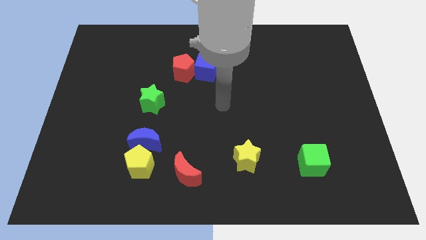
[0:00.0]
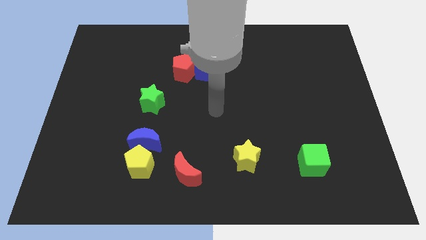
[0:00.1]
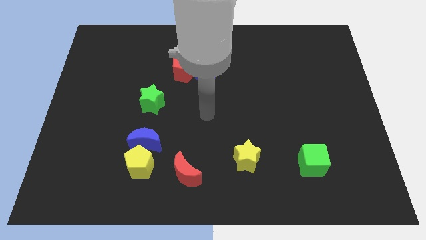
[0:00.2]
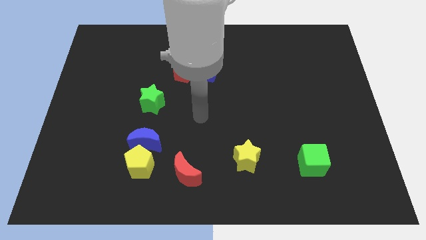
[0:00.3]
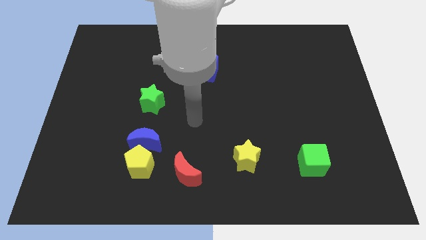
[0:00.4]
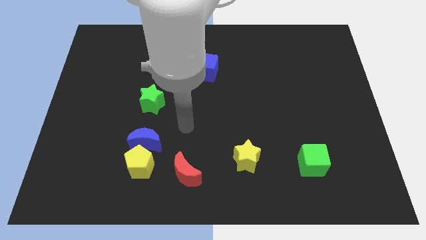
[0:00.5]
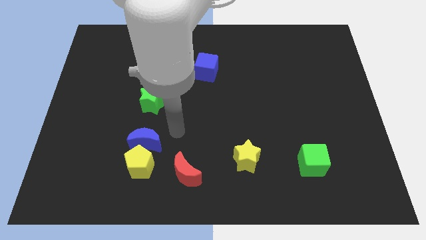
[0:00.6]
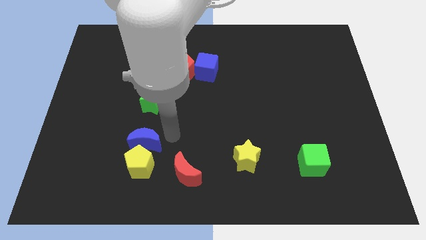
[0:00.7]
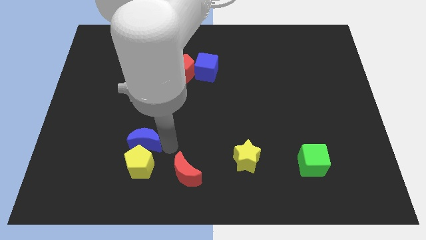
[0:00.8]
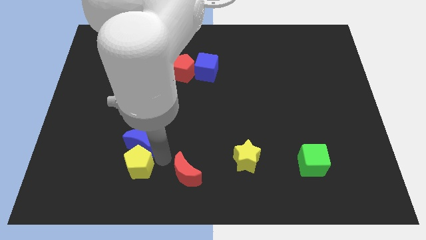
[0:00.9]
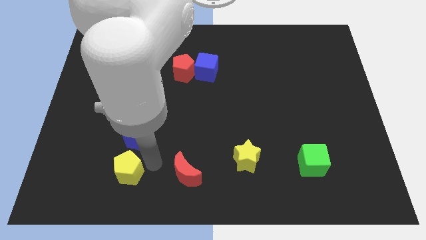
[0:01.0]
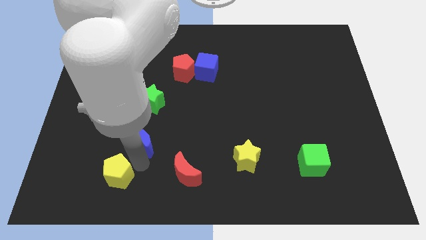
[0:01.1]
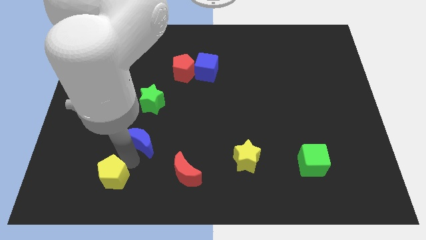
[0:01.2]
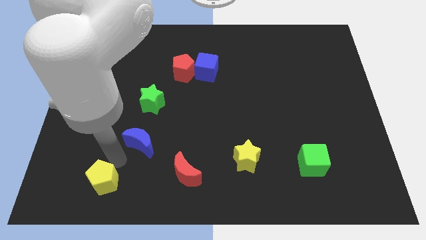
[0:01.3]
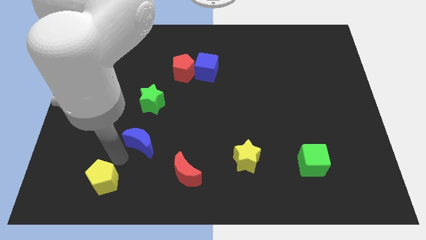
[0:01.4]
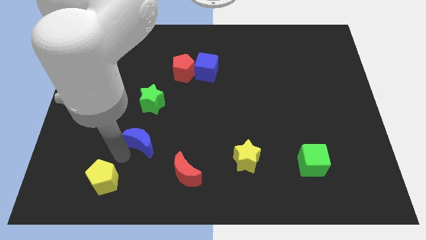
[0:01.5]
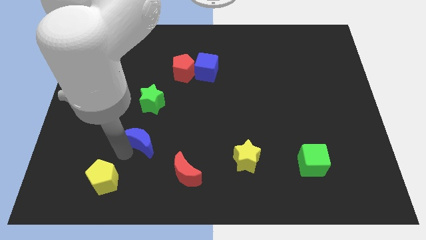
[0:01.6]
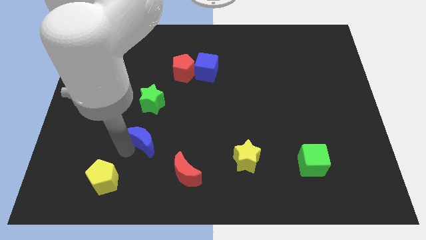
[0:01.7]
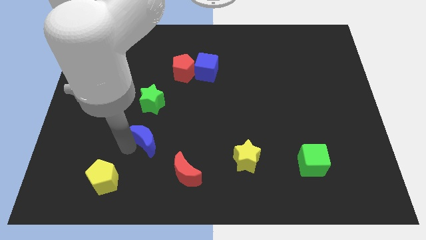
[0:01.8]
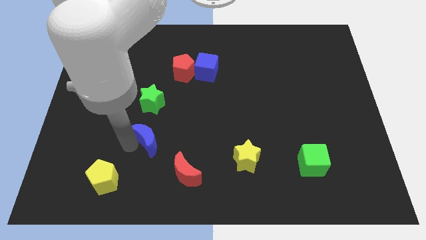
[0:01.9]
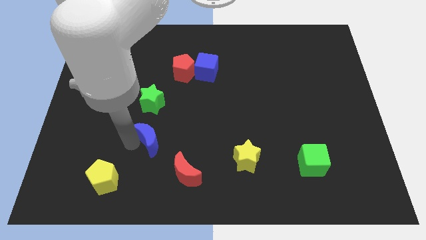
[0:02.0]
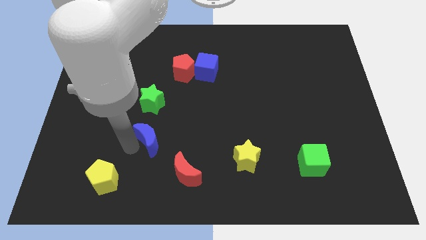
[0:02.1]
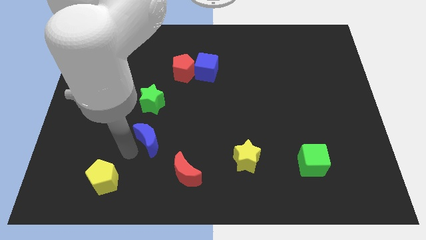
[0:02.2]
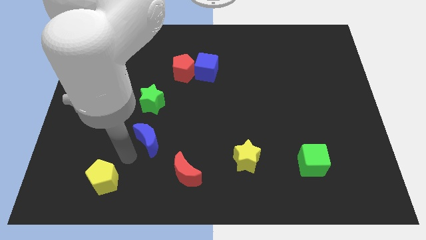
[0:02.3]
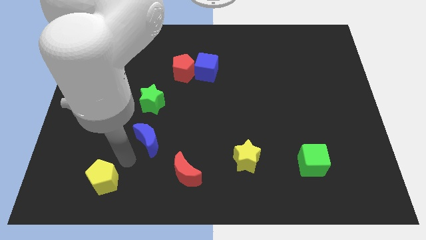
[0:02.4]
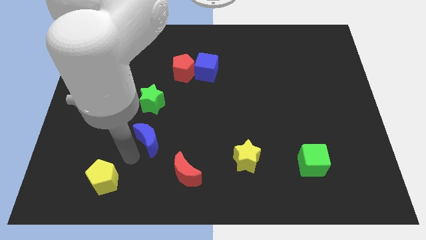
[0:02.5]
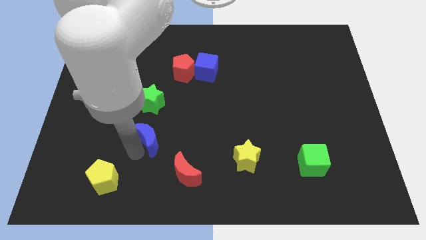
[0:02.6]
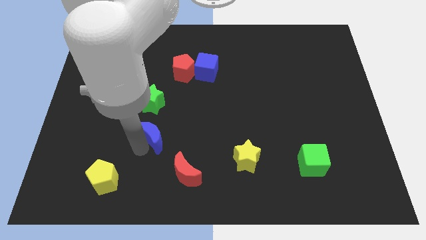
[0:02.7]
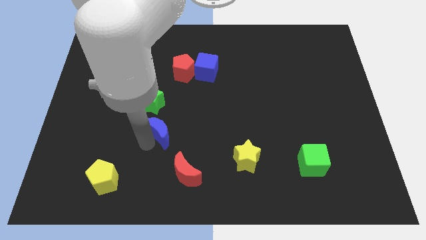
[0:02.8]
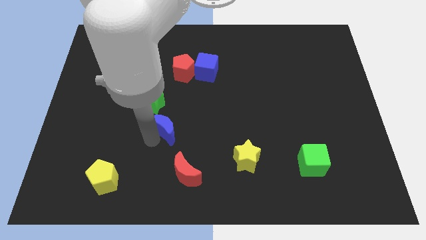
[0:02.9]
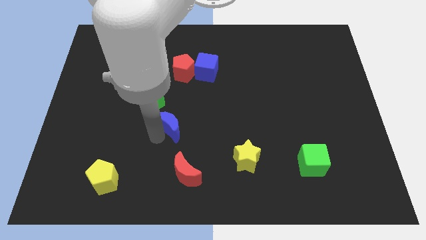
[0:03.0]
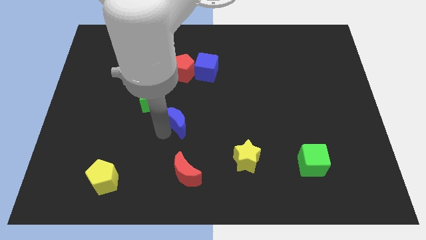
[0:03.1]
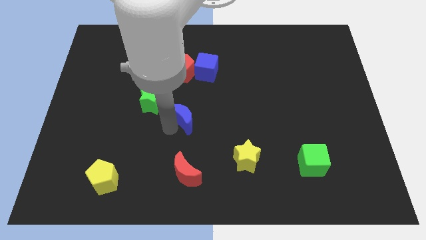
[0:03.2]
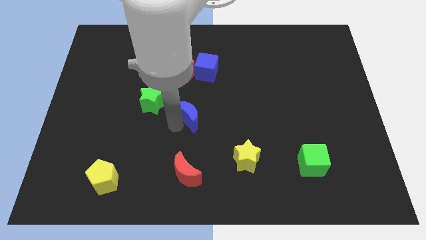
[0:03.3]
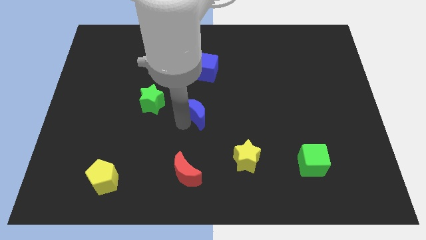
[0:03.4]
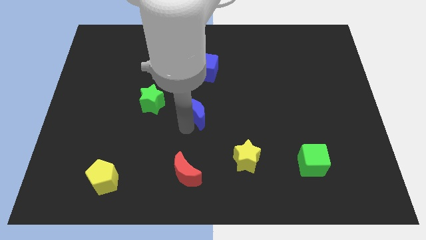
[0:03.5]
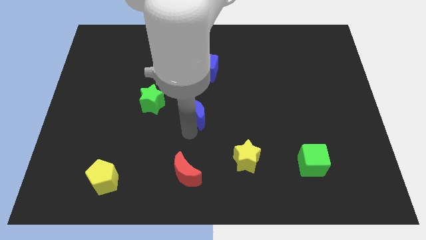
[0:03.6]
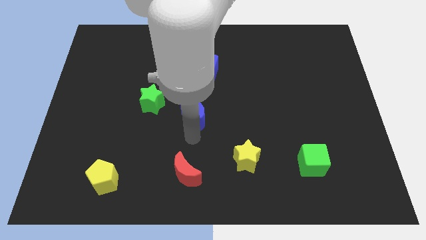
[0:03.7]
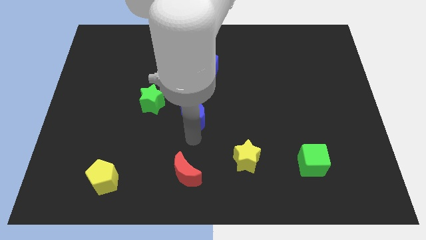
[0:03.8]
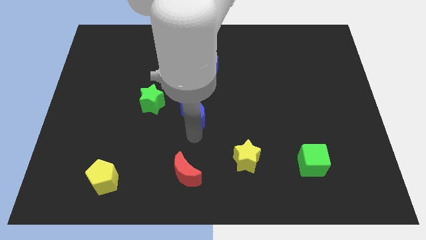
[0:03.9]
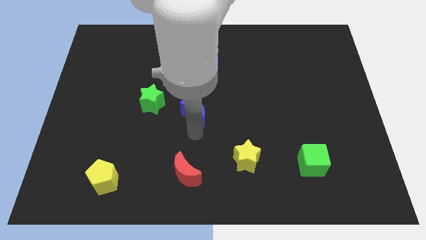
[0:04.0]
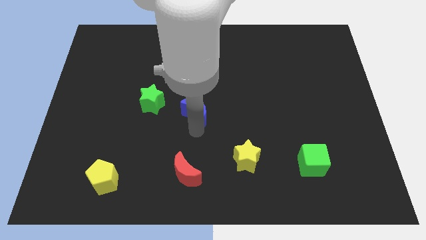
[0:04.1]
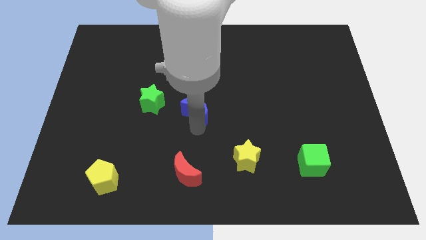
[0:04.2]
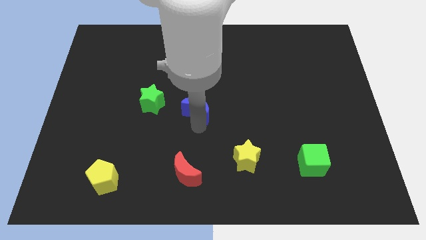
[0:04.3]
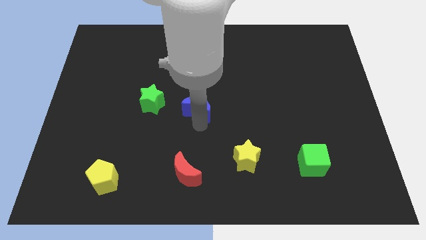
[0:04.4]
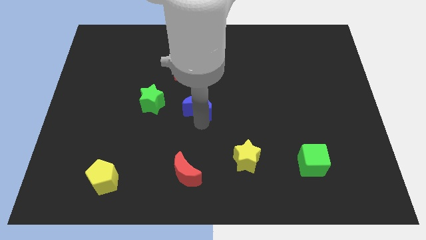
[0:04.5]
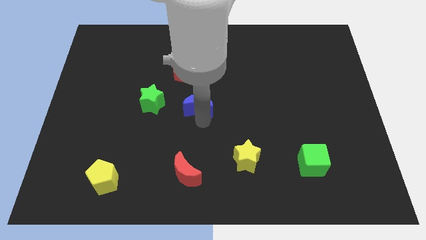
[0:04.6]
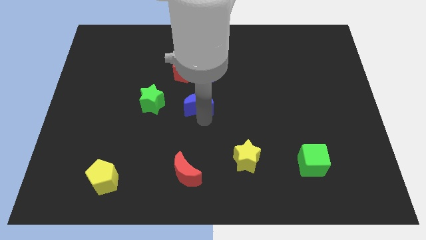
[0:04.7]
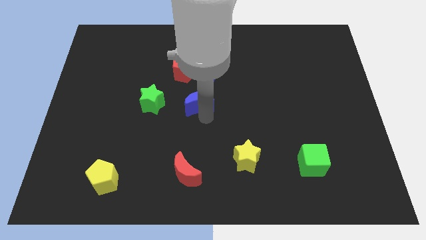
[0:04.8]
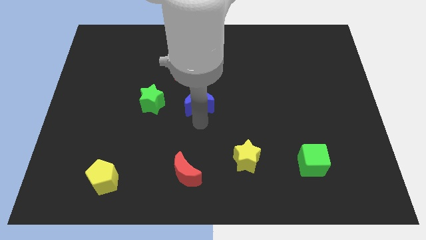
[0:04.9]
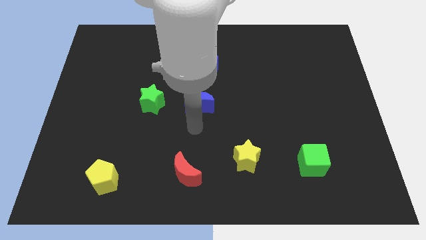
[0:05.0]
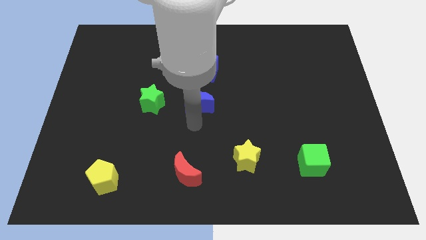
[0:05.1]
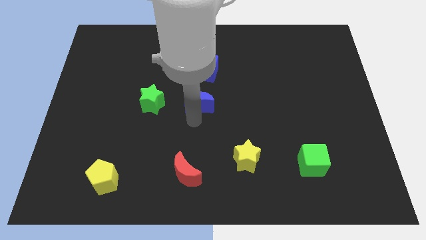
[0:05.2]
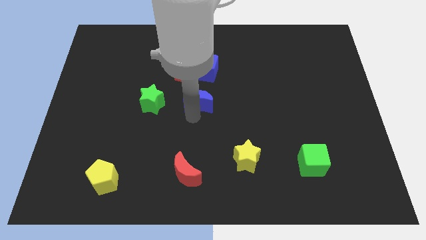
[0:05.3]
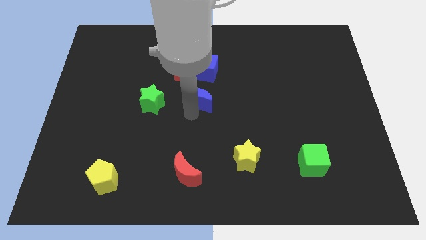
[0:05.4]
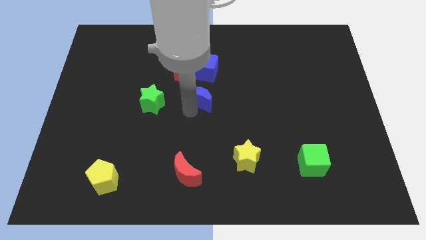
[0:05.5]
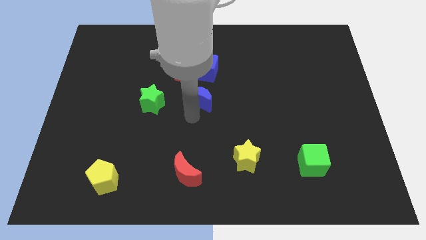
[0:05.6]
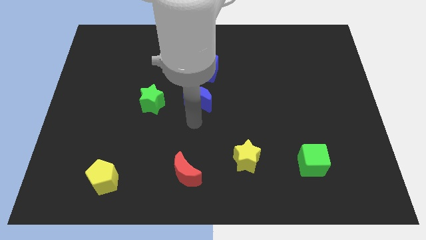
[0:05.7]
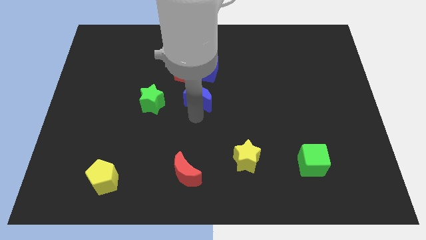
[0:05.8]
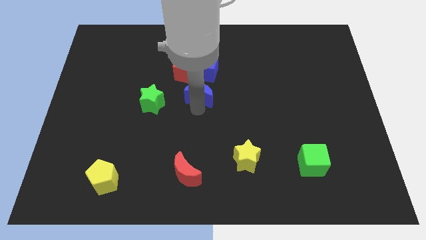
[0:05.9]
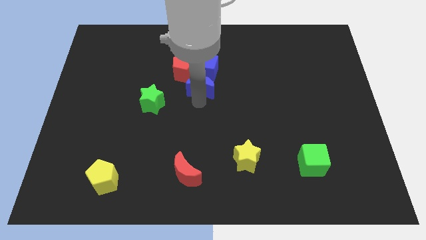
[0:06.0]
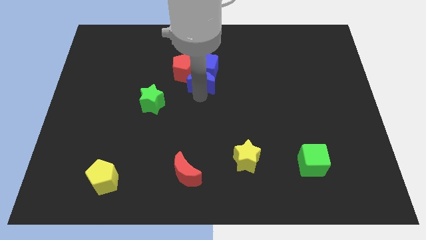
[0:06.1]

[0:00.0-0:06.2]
move the blue moon to the blue cube

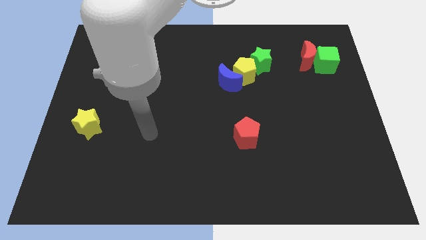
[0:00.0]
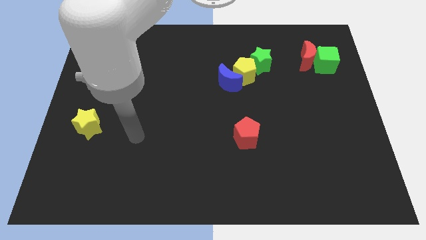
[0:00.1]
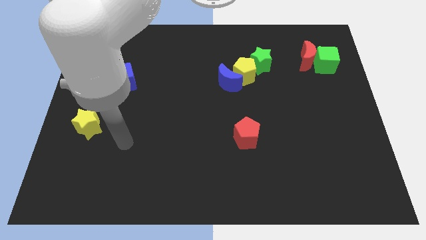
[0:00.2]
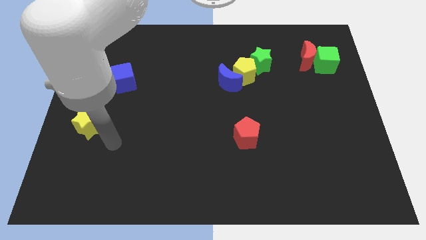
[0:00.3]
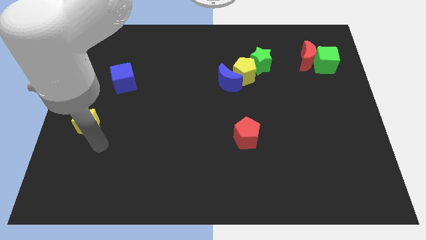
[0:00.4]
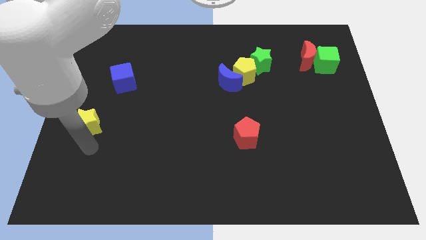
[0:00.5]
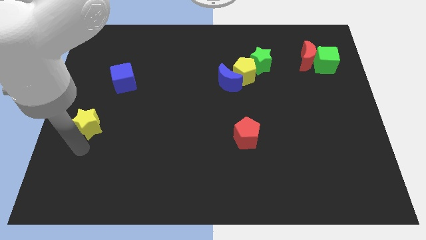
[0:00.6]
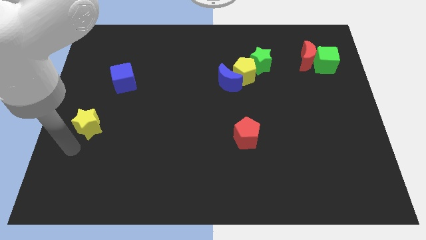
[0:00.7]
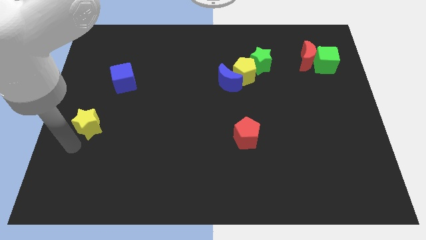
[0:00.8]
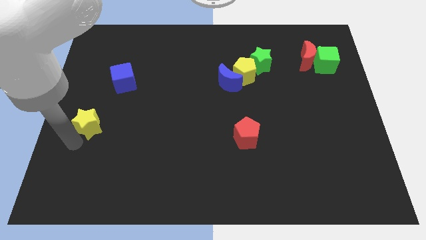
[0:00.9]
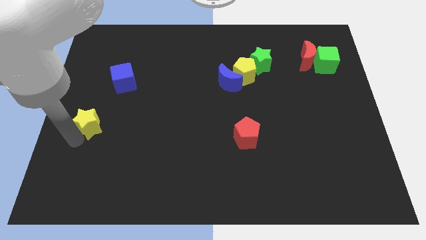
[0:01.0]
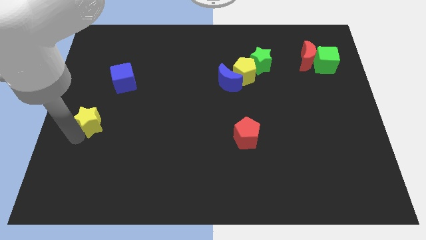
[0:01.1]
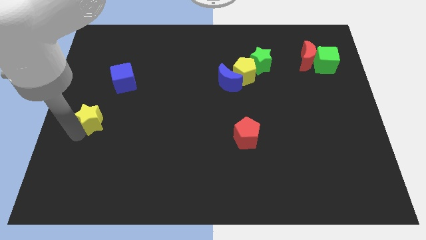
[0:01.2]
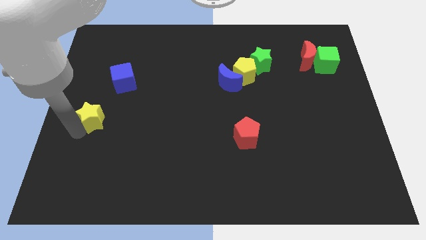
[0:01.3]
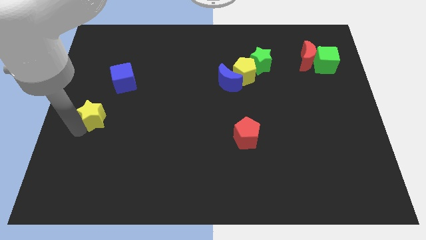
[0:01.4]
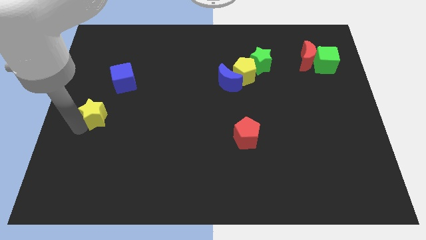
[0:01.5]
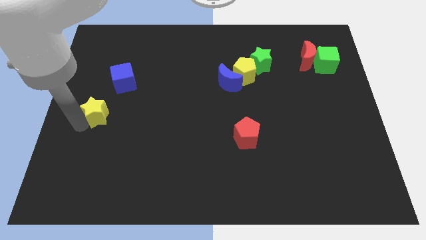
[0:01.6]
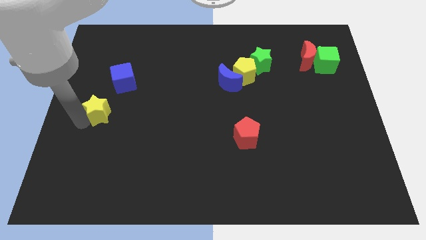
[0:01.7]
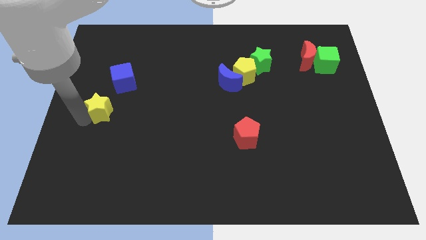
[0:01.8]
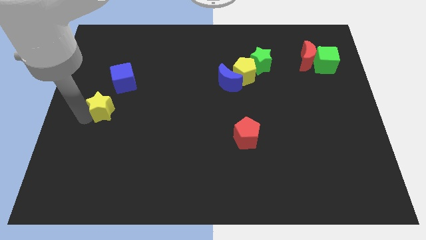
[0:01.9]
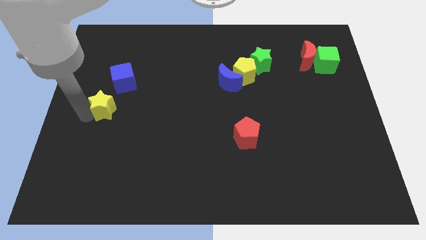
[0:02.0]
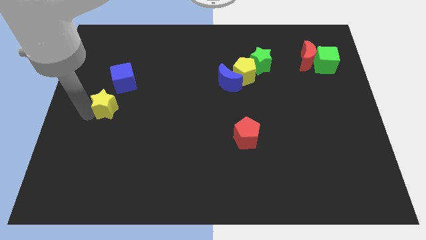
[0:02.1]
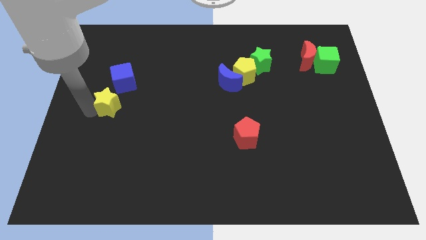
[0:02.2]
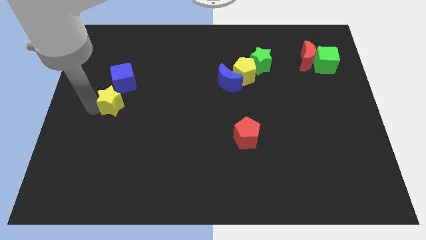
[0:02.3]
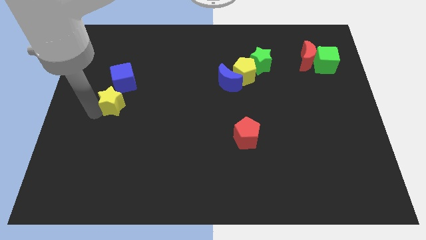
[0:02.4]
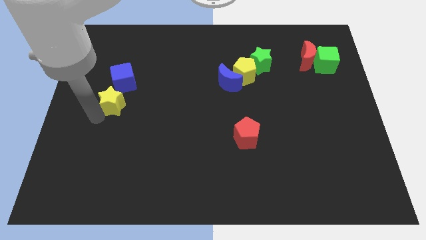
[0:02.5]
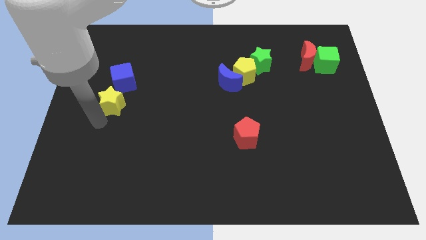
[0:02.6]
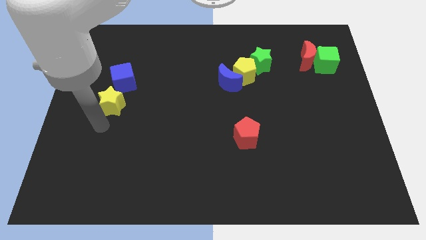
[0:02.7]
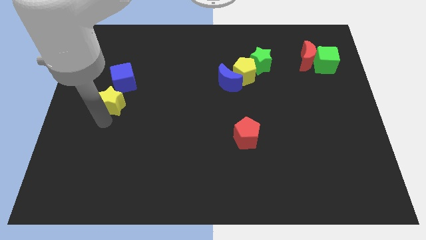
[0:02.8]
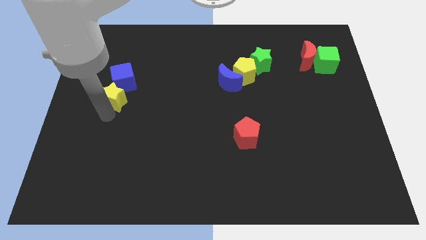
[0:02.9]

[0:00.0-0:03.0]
slide the yellow star to the blue cube
